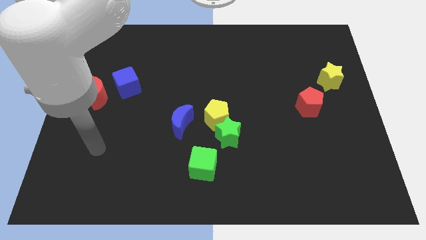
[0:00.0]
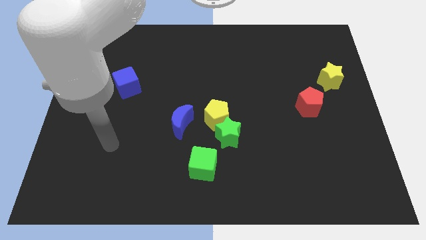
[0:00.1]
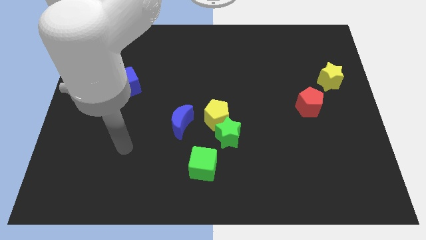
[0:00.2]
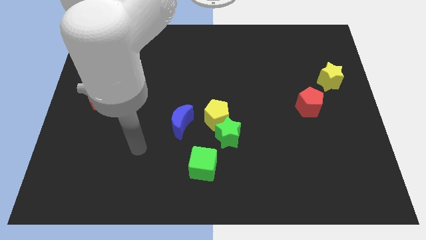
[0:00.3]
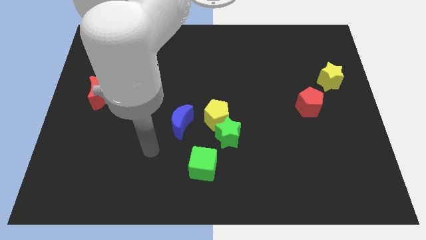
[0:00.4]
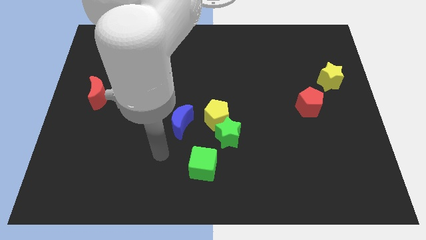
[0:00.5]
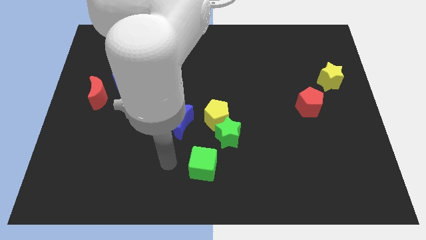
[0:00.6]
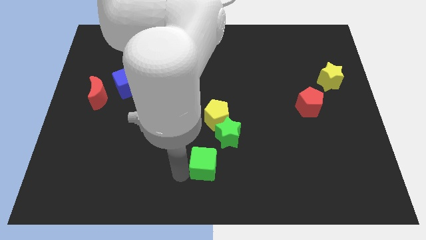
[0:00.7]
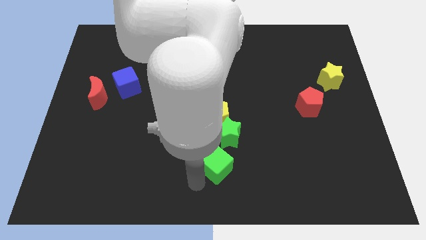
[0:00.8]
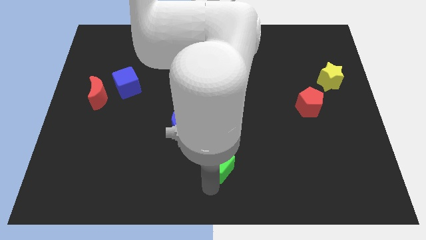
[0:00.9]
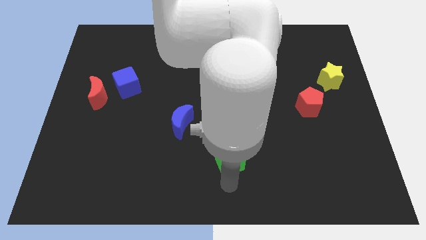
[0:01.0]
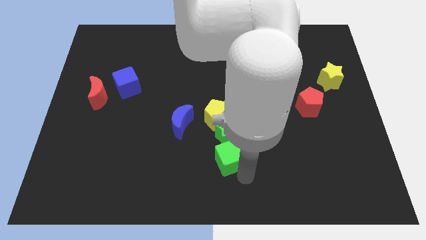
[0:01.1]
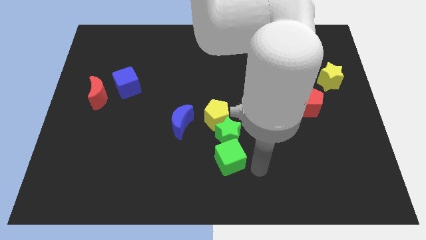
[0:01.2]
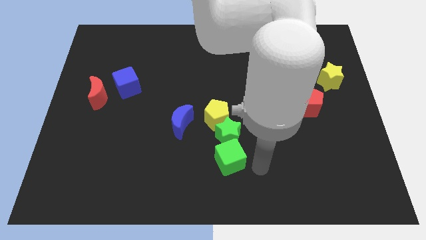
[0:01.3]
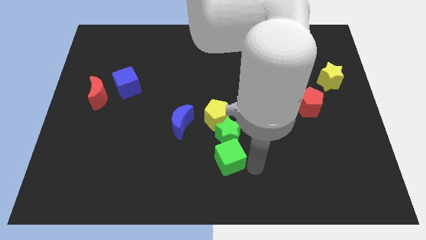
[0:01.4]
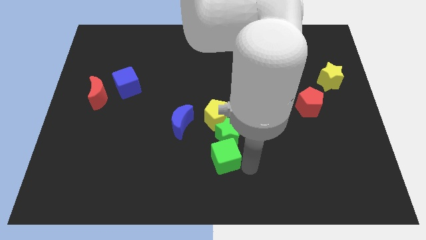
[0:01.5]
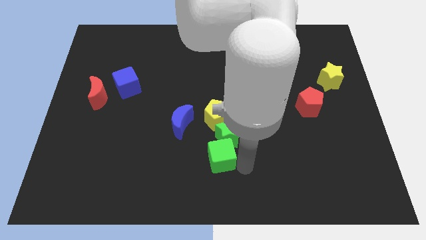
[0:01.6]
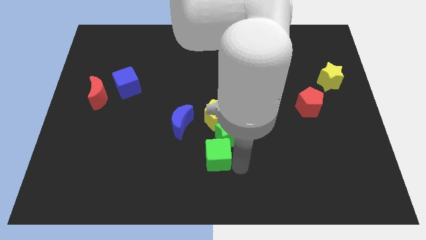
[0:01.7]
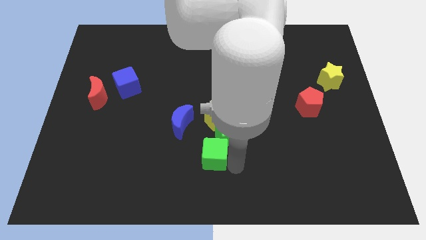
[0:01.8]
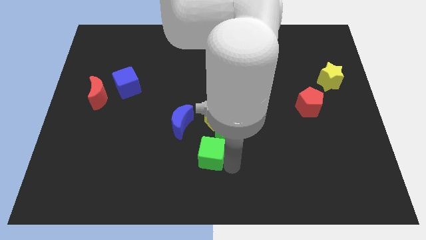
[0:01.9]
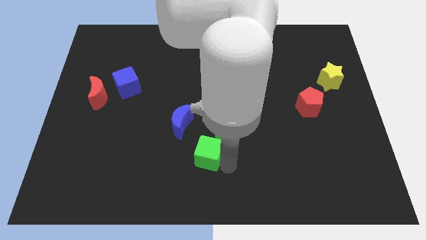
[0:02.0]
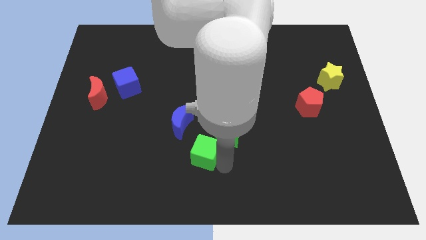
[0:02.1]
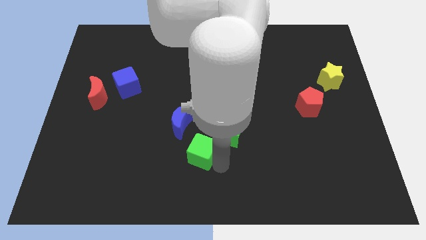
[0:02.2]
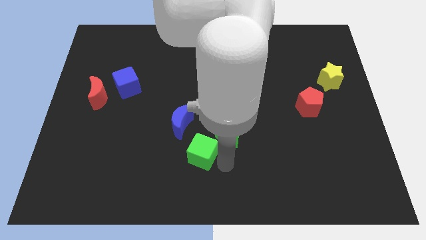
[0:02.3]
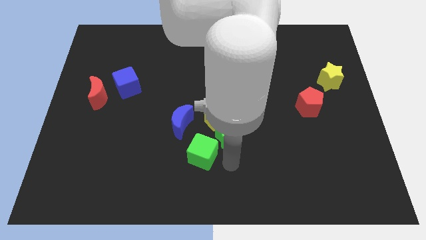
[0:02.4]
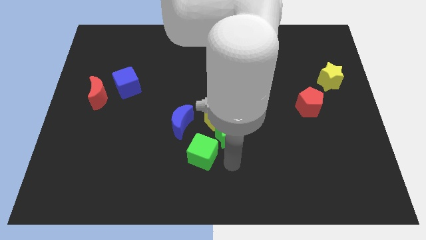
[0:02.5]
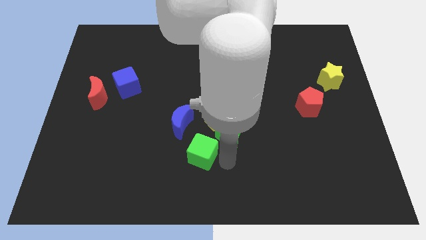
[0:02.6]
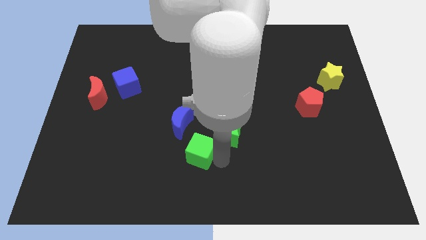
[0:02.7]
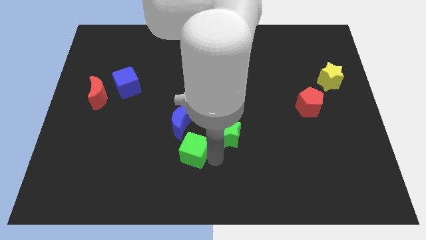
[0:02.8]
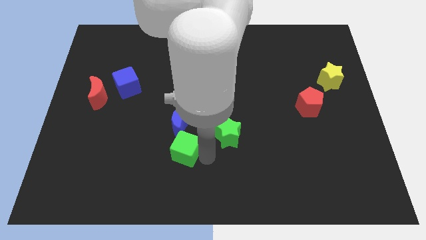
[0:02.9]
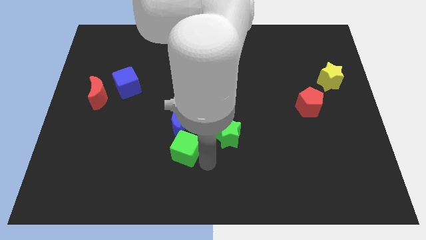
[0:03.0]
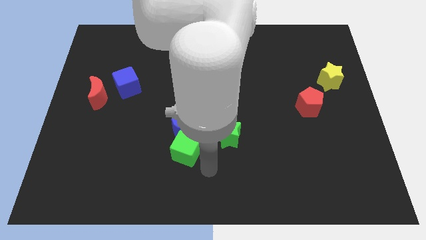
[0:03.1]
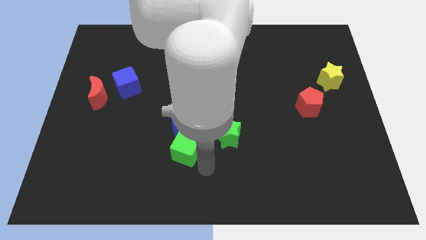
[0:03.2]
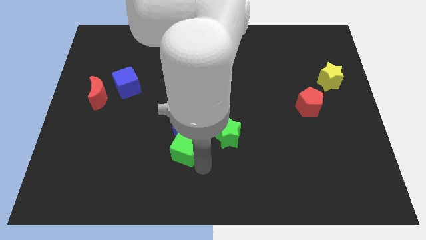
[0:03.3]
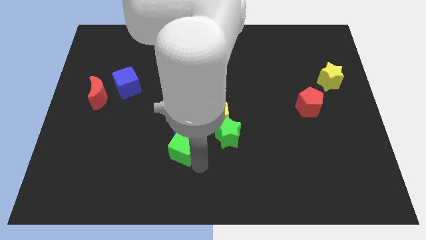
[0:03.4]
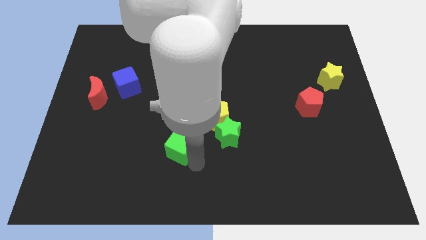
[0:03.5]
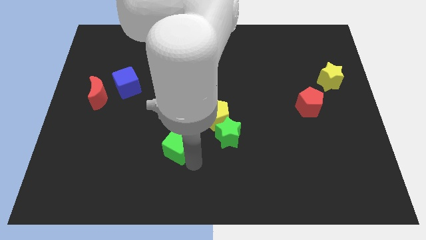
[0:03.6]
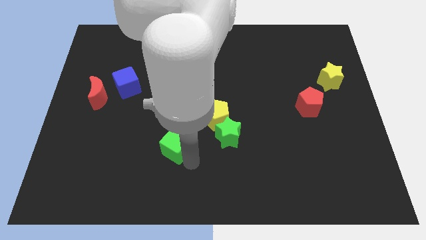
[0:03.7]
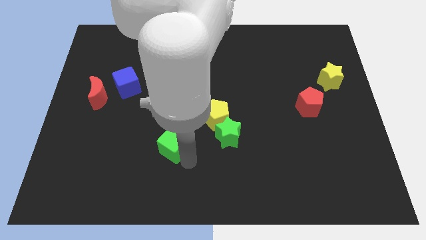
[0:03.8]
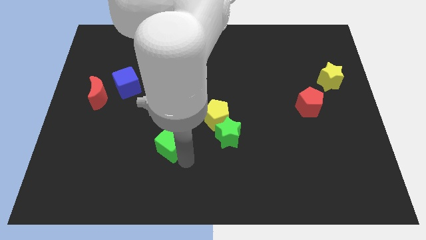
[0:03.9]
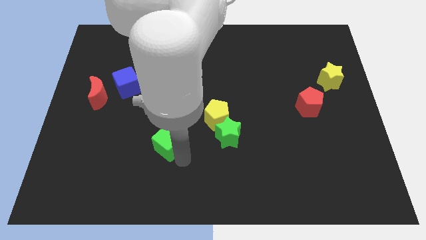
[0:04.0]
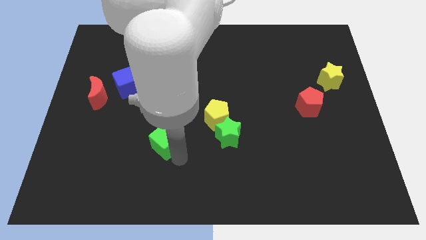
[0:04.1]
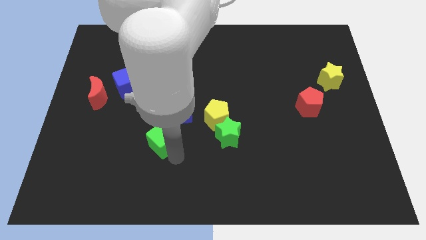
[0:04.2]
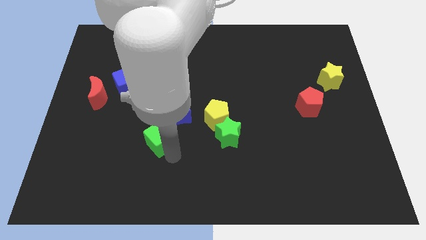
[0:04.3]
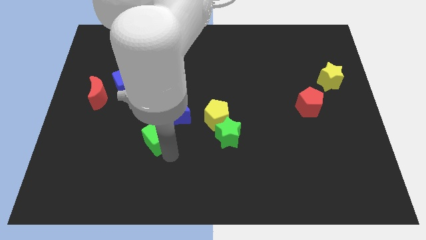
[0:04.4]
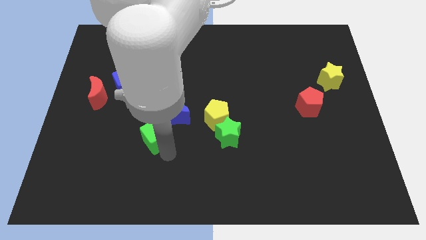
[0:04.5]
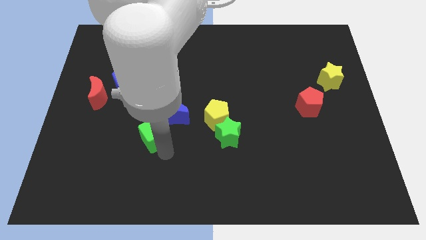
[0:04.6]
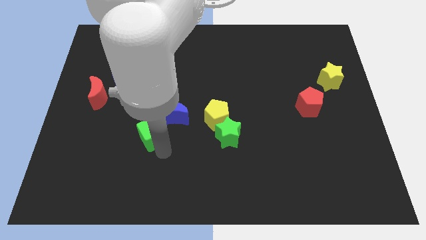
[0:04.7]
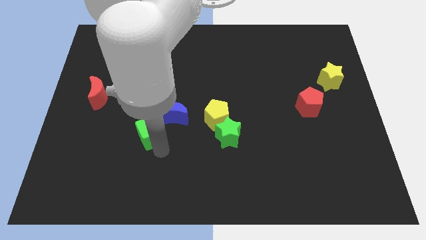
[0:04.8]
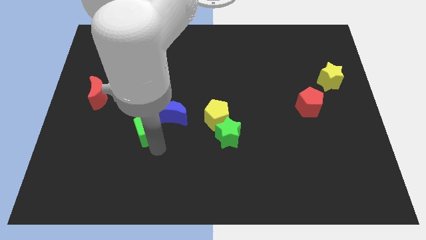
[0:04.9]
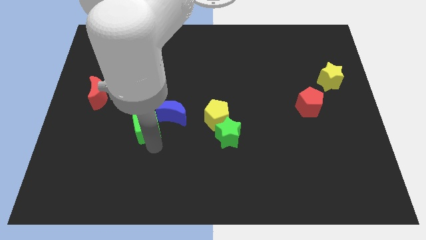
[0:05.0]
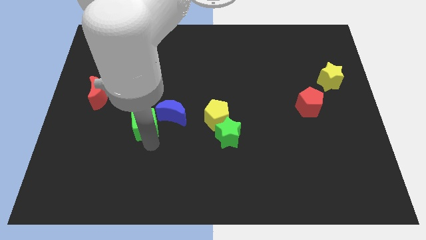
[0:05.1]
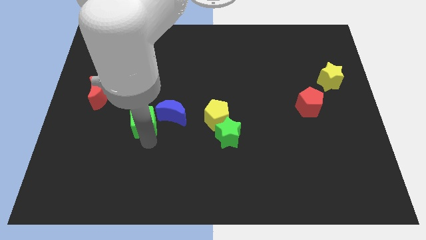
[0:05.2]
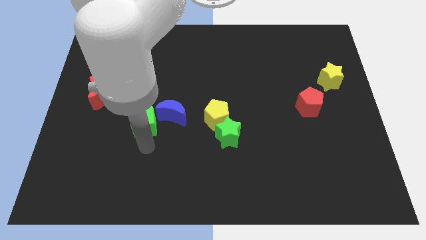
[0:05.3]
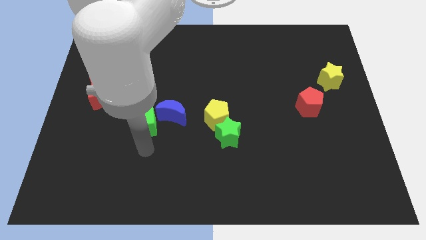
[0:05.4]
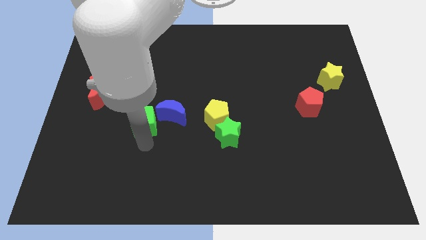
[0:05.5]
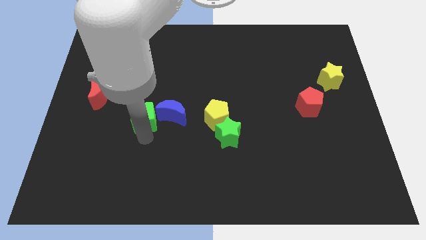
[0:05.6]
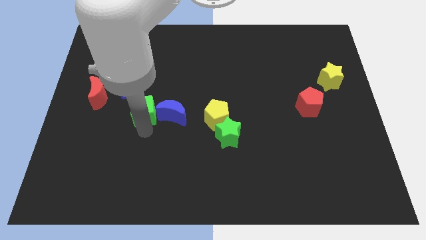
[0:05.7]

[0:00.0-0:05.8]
move the green cube diagonally upwards and left

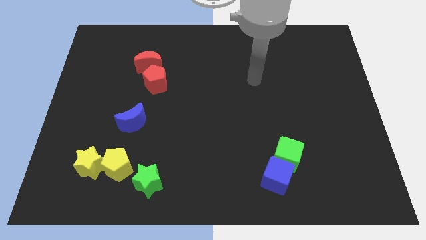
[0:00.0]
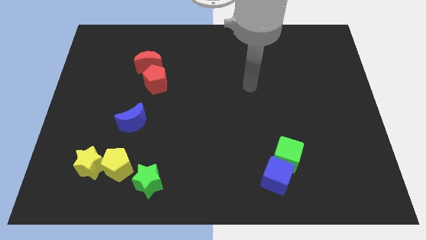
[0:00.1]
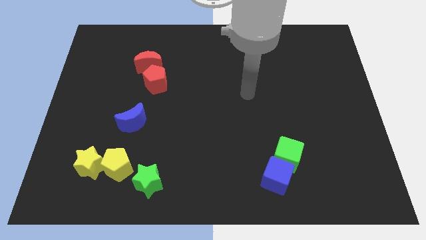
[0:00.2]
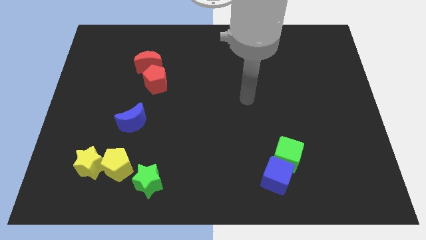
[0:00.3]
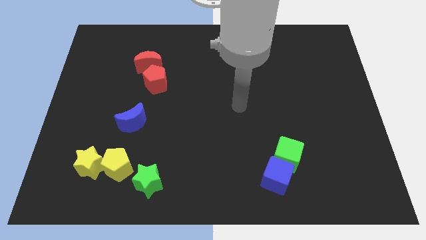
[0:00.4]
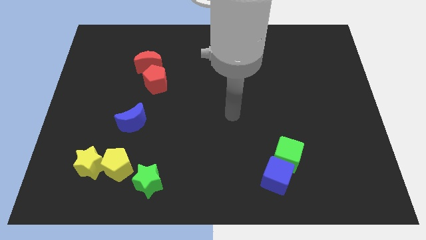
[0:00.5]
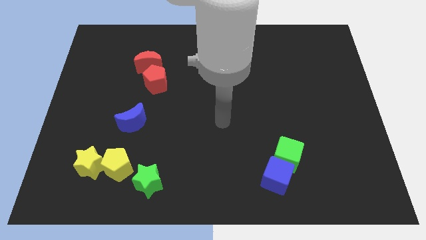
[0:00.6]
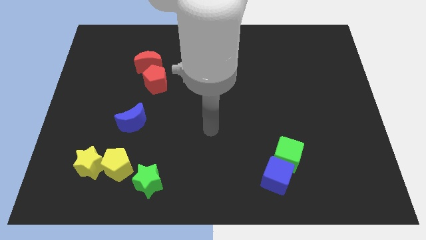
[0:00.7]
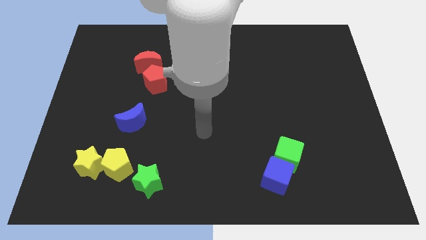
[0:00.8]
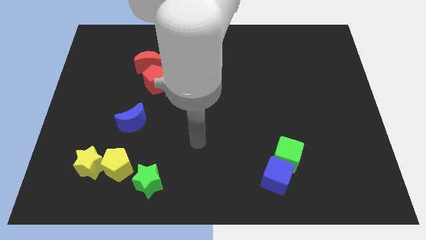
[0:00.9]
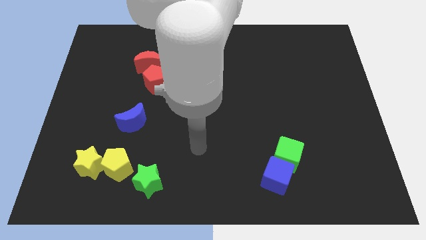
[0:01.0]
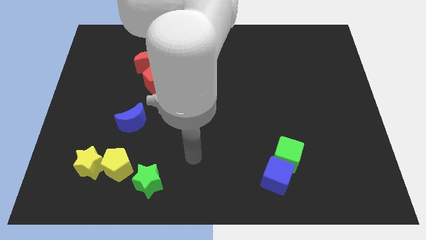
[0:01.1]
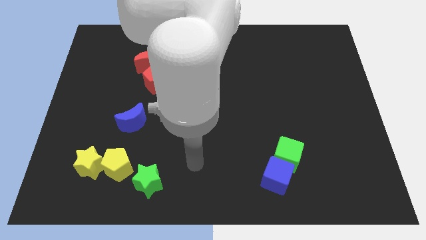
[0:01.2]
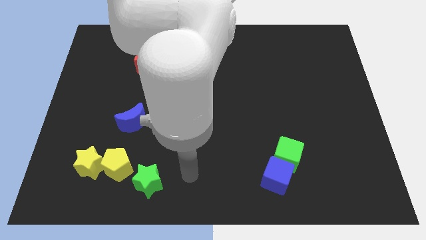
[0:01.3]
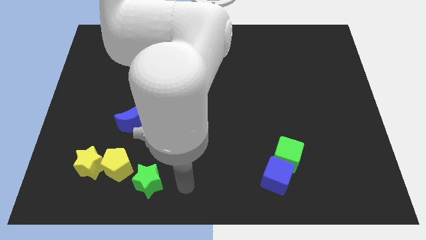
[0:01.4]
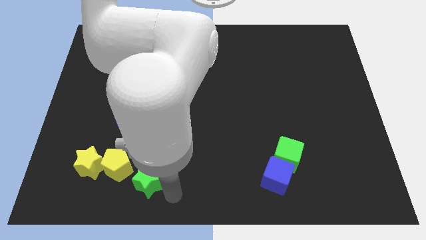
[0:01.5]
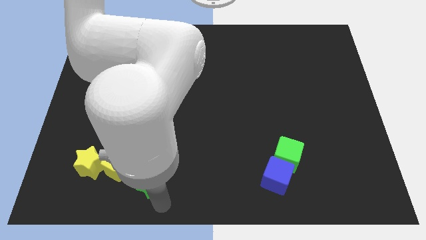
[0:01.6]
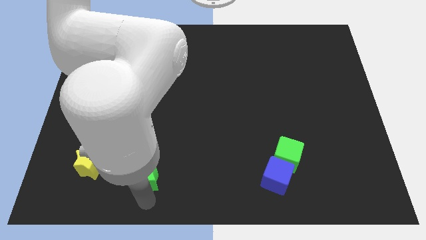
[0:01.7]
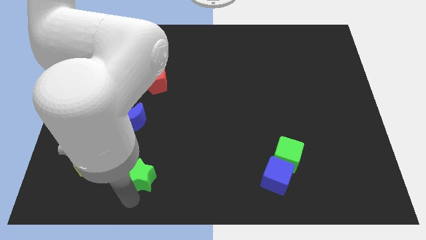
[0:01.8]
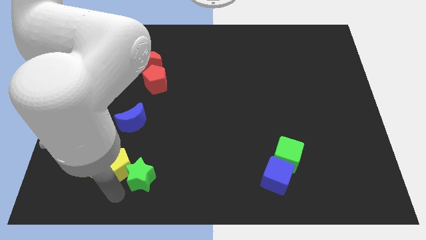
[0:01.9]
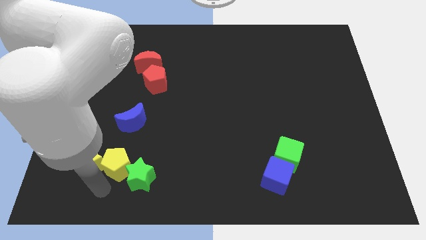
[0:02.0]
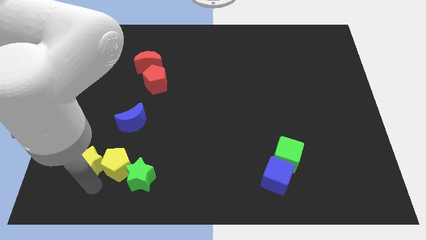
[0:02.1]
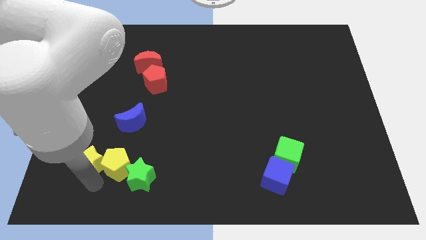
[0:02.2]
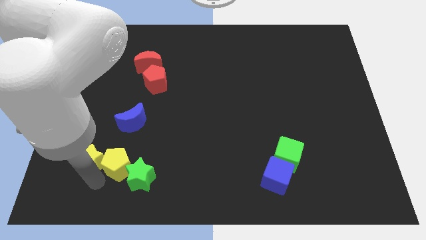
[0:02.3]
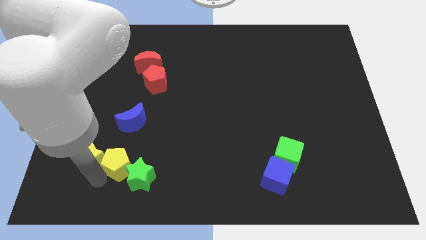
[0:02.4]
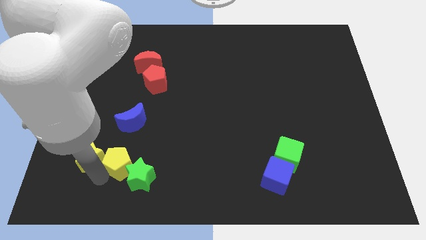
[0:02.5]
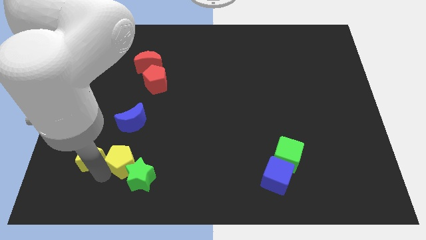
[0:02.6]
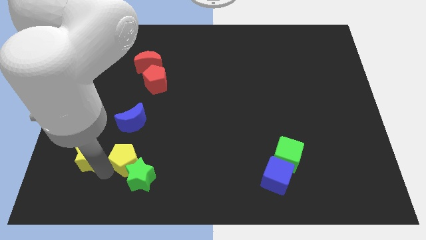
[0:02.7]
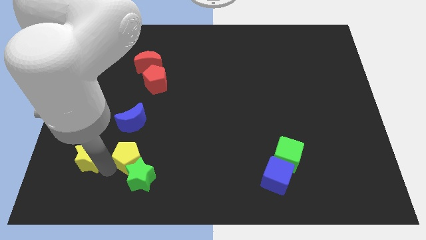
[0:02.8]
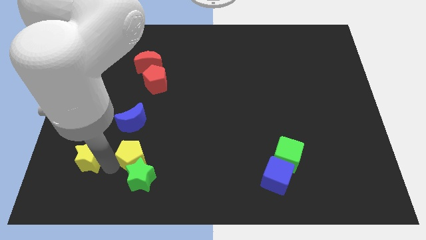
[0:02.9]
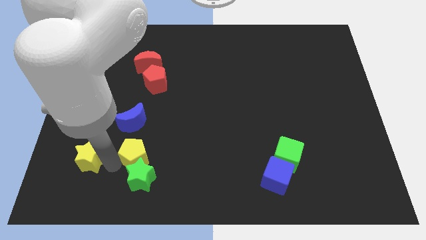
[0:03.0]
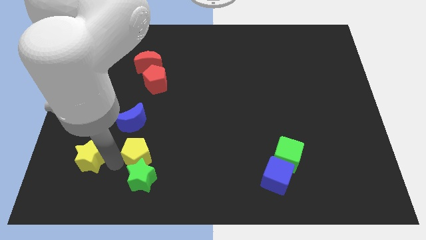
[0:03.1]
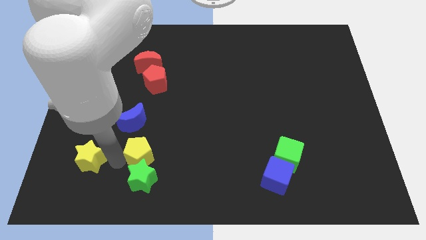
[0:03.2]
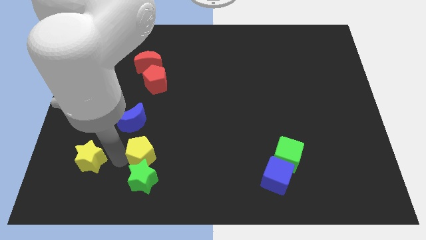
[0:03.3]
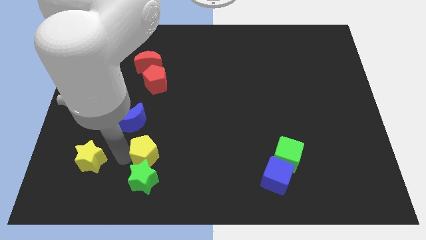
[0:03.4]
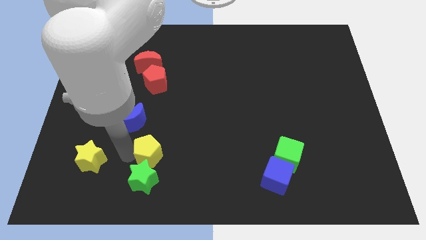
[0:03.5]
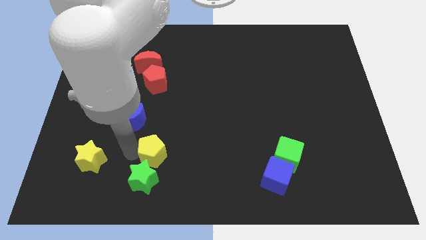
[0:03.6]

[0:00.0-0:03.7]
move the yellow pentagon somewhat diagonally upwards and right
